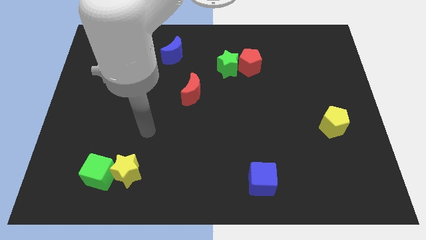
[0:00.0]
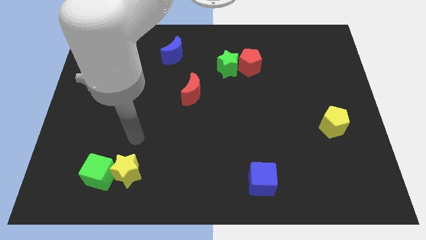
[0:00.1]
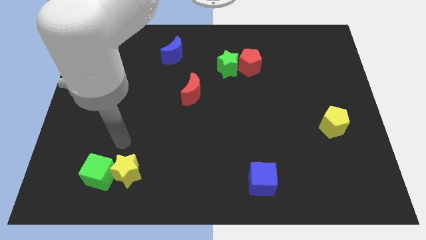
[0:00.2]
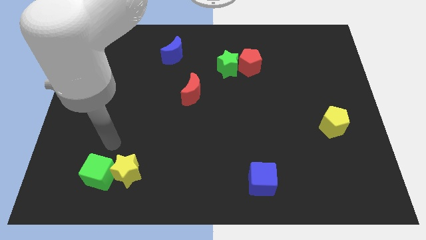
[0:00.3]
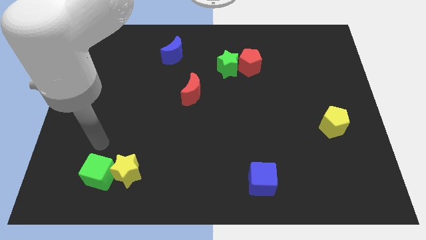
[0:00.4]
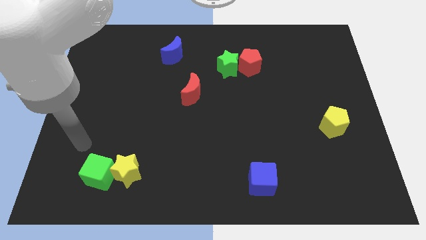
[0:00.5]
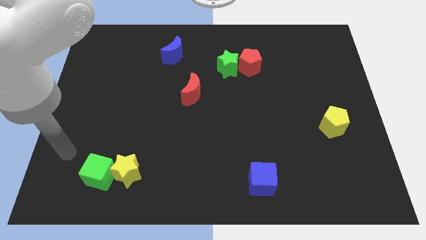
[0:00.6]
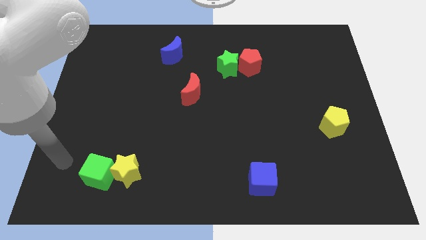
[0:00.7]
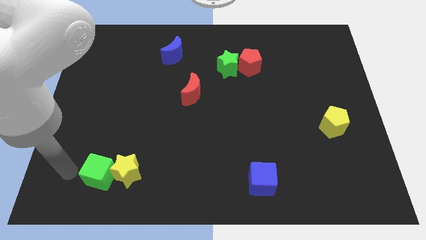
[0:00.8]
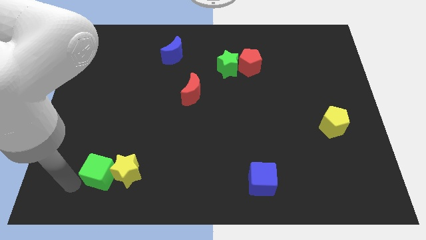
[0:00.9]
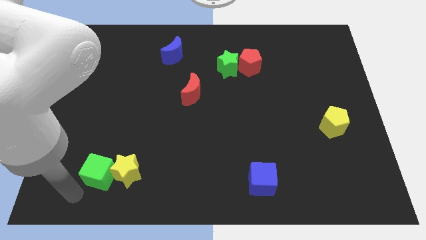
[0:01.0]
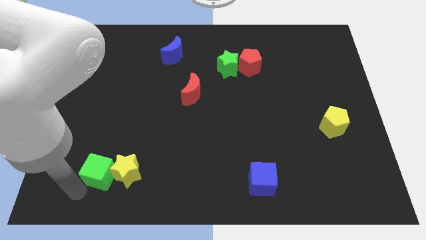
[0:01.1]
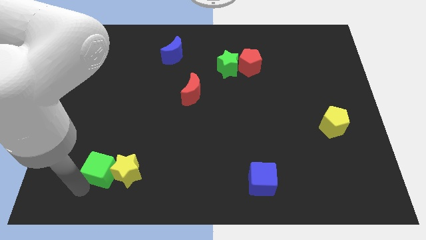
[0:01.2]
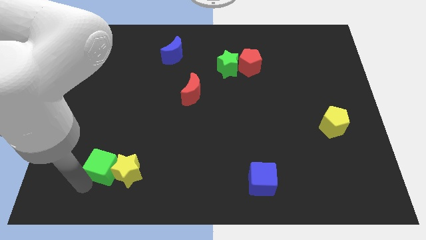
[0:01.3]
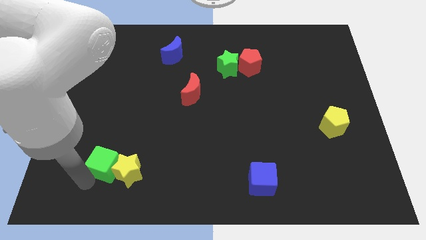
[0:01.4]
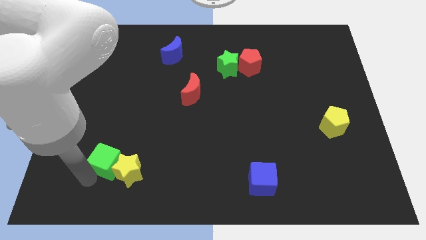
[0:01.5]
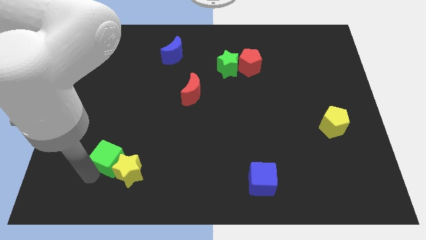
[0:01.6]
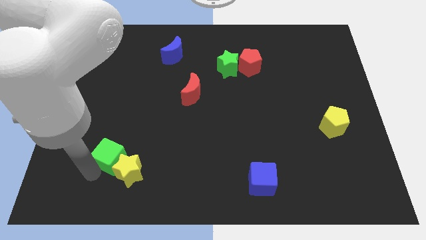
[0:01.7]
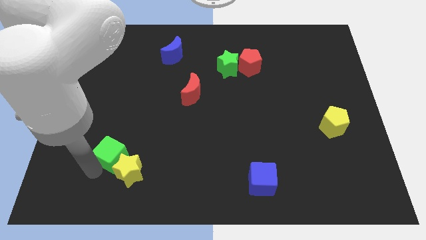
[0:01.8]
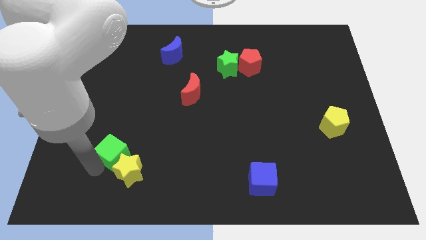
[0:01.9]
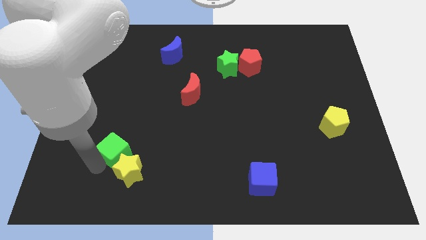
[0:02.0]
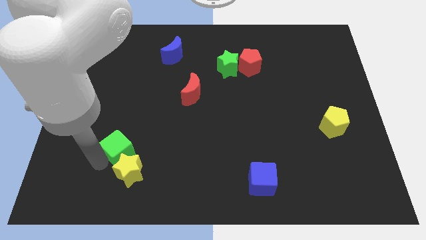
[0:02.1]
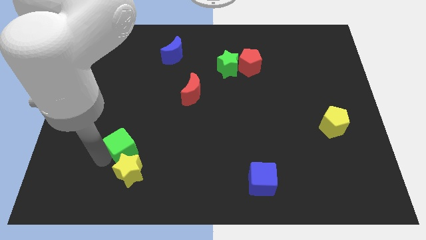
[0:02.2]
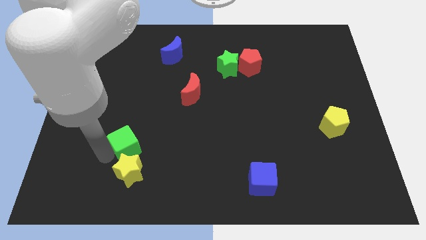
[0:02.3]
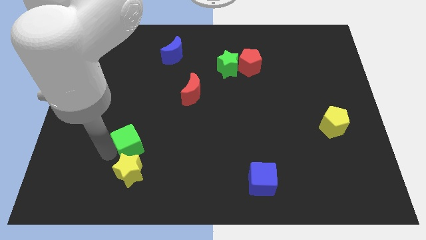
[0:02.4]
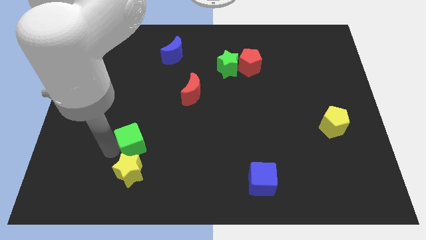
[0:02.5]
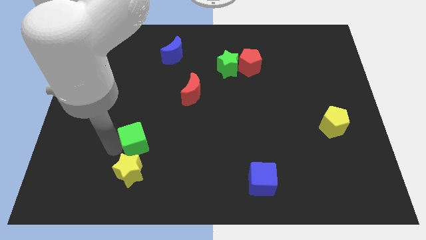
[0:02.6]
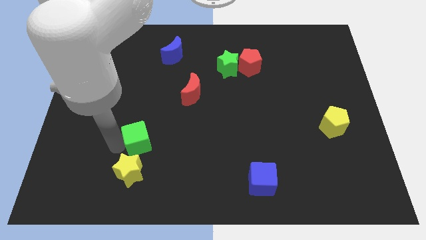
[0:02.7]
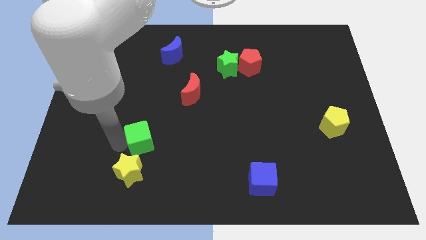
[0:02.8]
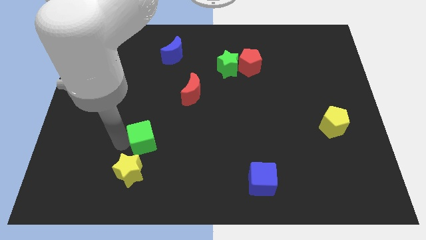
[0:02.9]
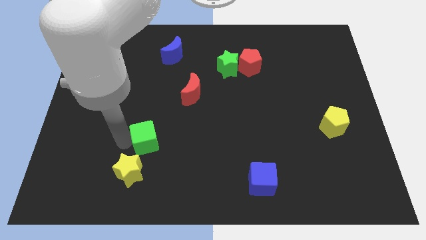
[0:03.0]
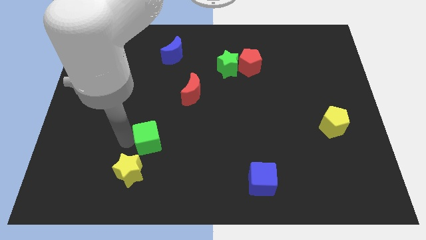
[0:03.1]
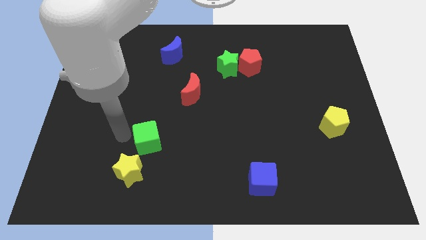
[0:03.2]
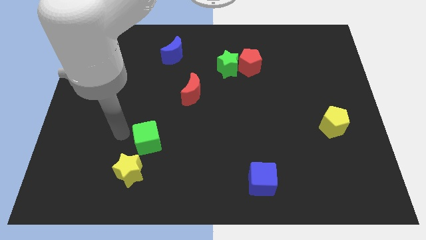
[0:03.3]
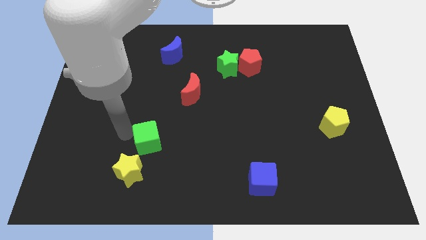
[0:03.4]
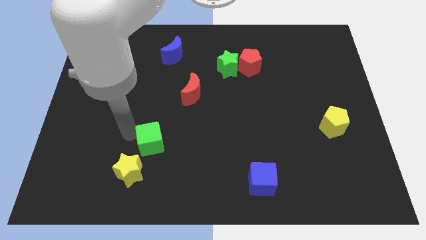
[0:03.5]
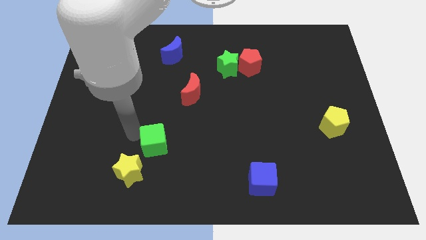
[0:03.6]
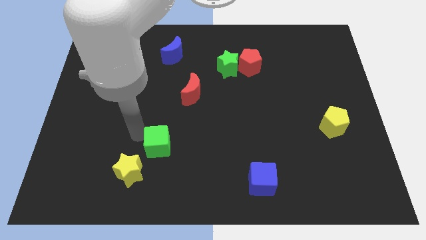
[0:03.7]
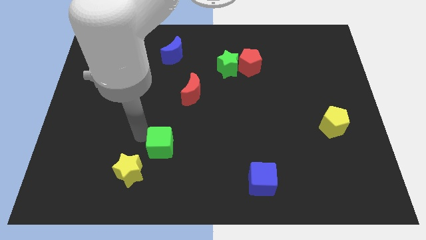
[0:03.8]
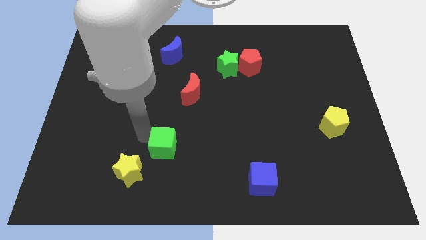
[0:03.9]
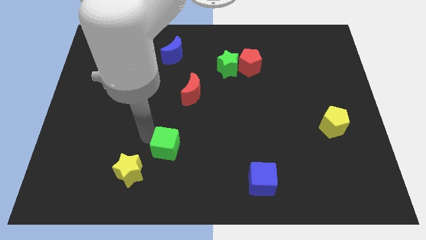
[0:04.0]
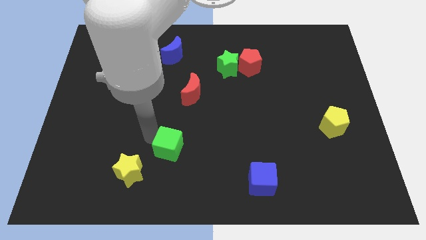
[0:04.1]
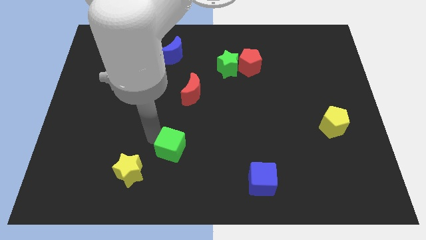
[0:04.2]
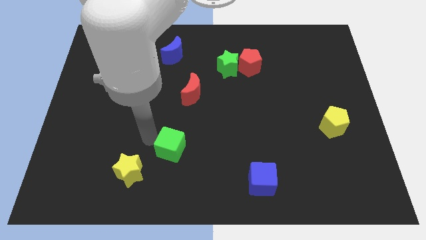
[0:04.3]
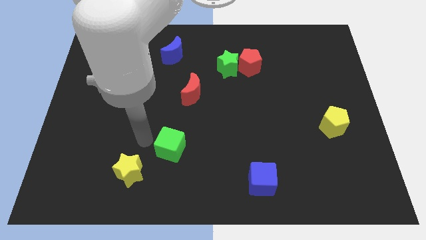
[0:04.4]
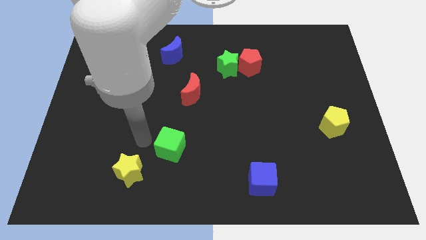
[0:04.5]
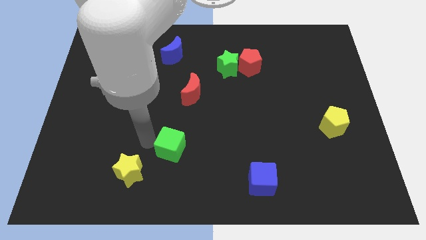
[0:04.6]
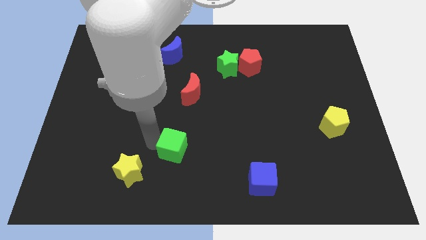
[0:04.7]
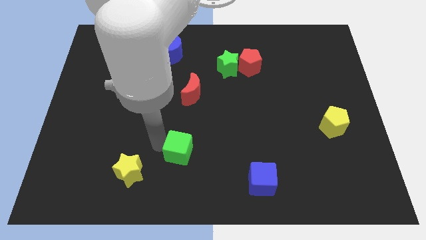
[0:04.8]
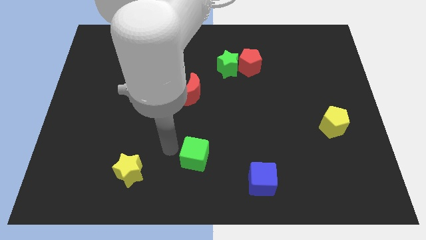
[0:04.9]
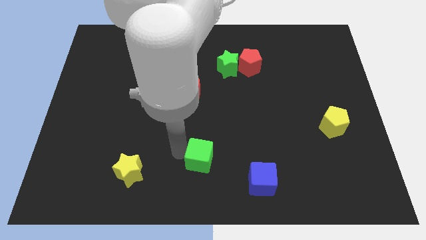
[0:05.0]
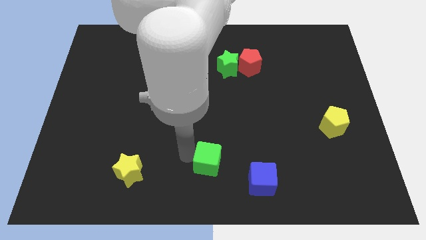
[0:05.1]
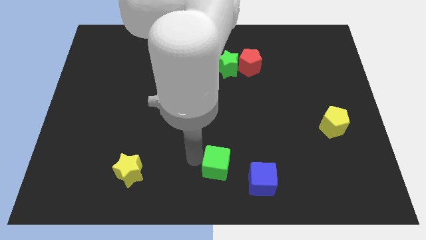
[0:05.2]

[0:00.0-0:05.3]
push the green cube to the top left side of the blue cube

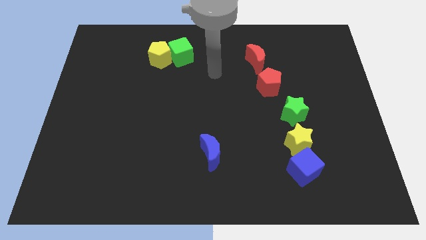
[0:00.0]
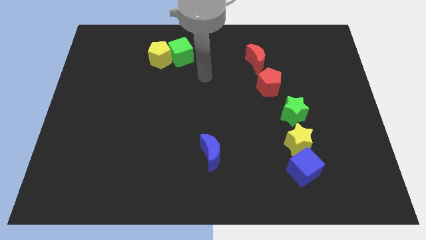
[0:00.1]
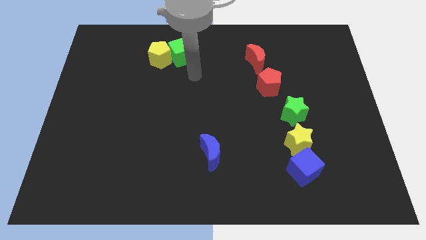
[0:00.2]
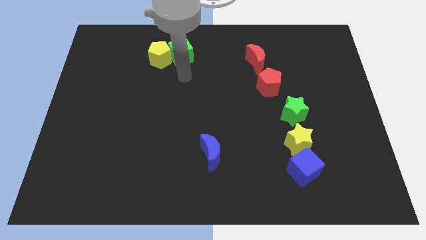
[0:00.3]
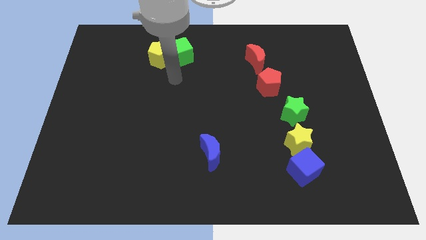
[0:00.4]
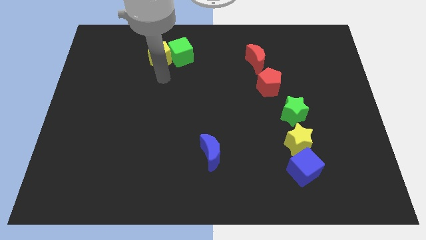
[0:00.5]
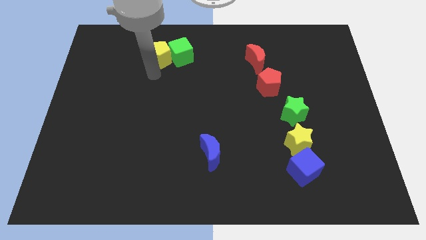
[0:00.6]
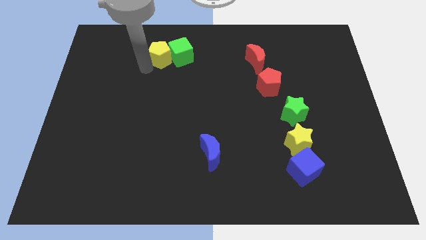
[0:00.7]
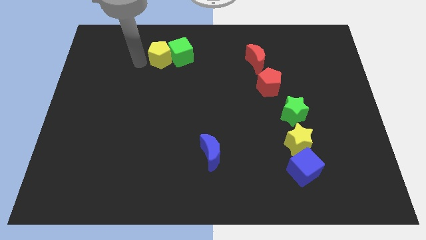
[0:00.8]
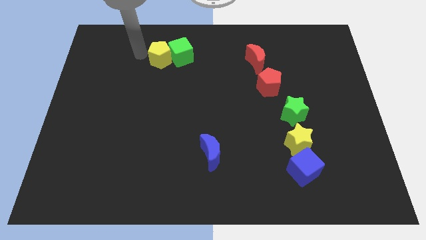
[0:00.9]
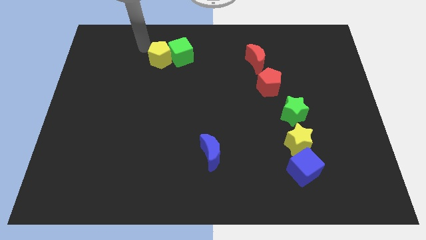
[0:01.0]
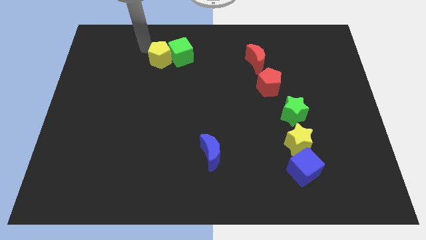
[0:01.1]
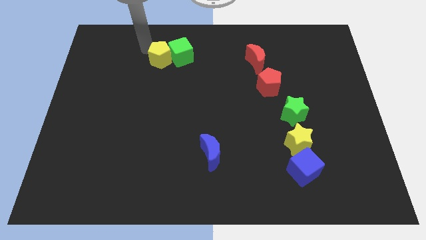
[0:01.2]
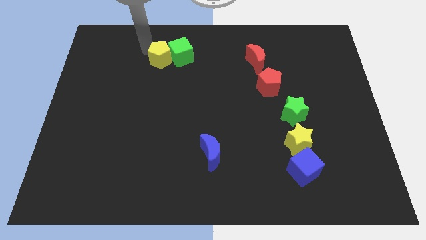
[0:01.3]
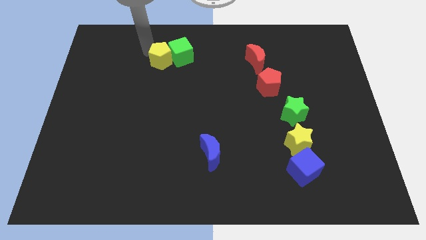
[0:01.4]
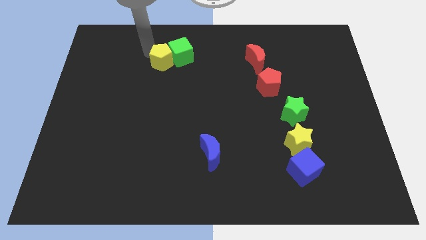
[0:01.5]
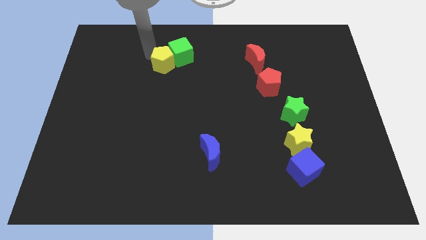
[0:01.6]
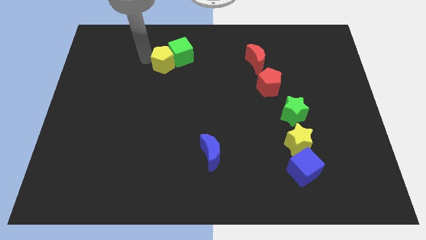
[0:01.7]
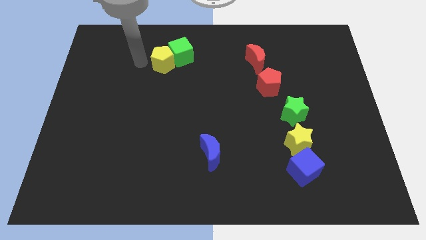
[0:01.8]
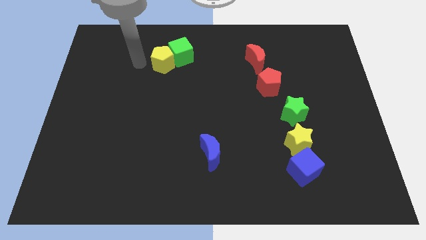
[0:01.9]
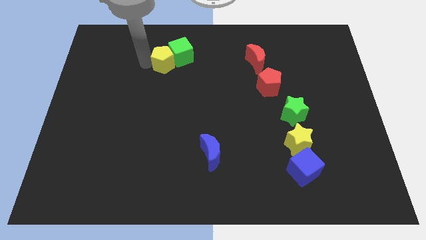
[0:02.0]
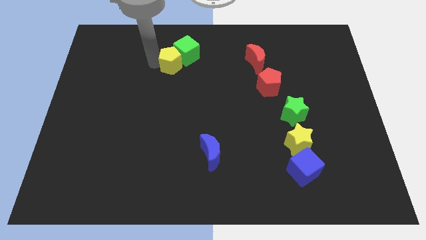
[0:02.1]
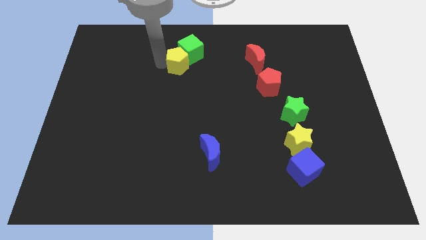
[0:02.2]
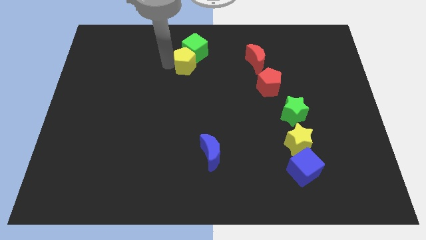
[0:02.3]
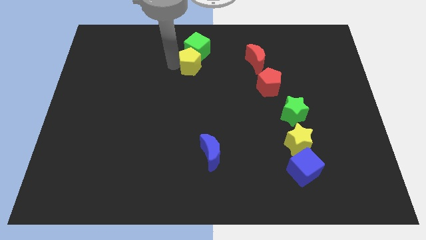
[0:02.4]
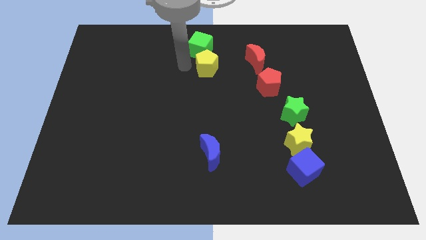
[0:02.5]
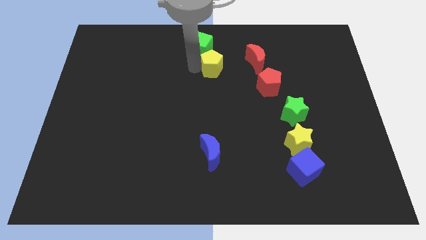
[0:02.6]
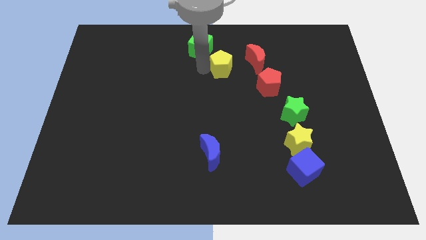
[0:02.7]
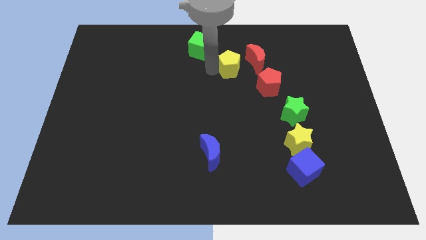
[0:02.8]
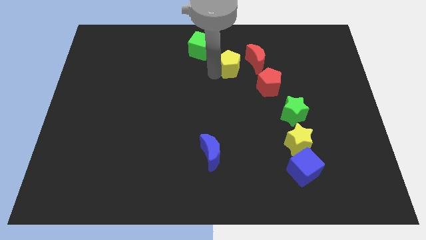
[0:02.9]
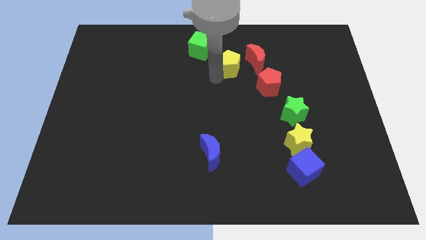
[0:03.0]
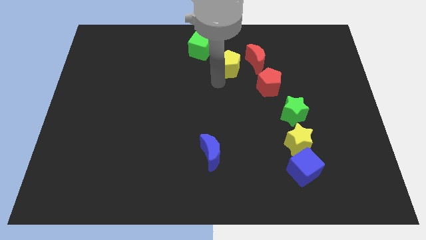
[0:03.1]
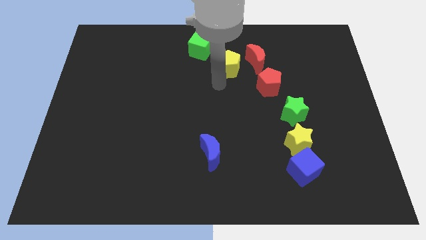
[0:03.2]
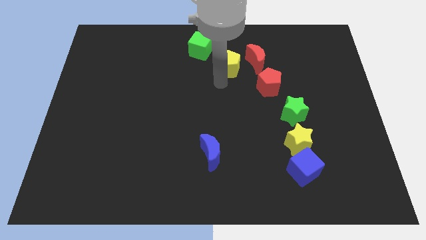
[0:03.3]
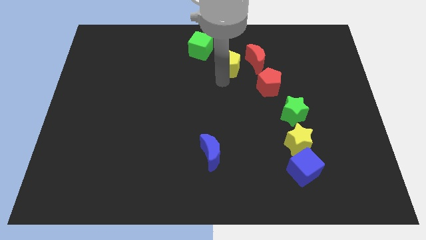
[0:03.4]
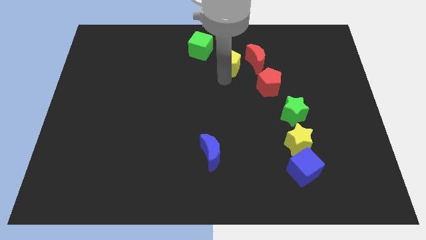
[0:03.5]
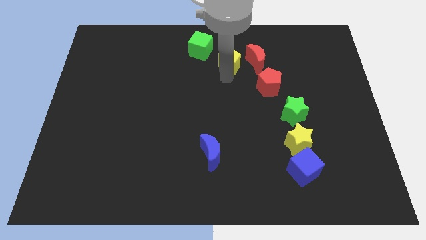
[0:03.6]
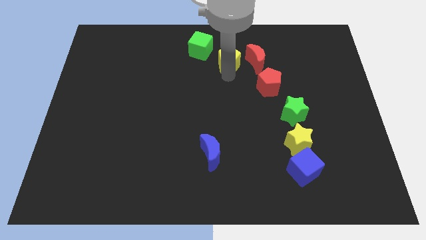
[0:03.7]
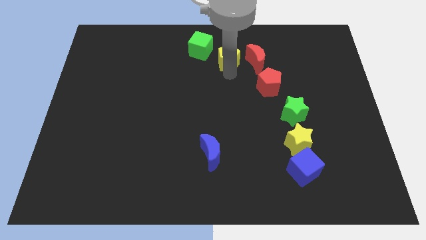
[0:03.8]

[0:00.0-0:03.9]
move the yellow pentagon just right of the green cube
